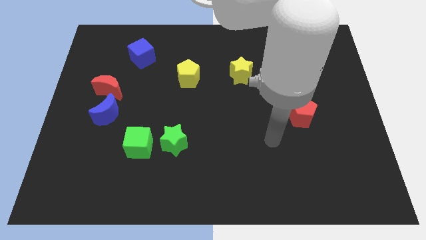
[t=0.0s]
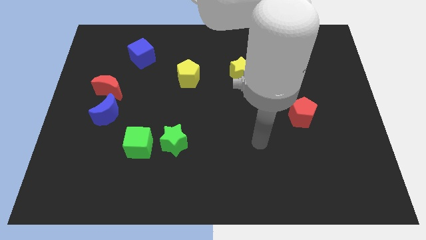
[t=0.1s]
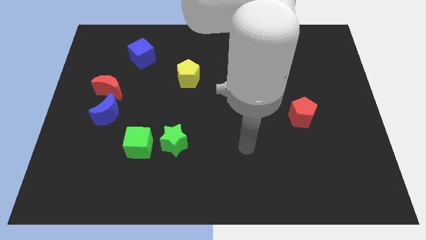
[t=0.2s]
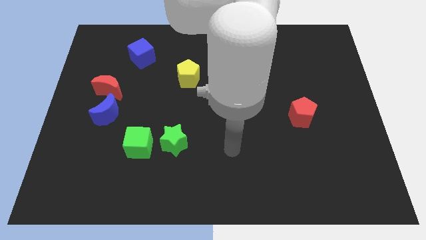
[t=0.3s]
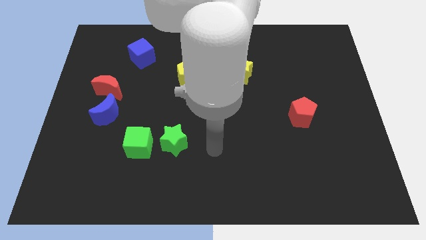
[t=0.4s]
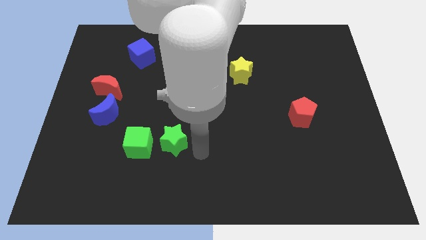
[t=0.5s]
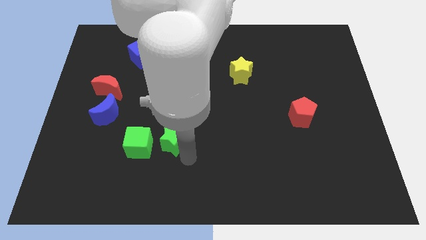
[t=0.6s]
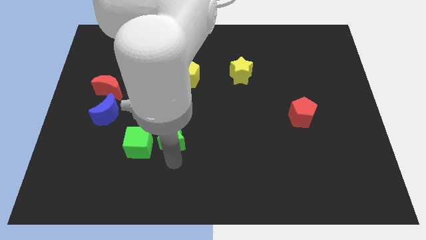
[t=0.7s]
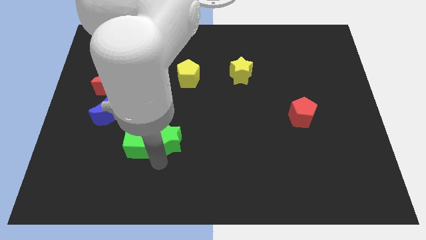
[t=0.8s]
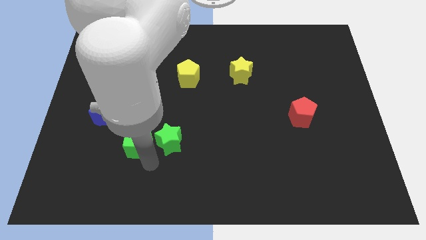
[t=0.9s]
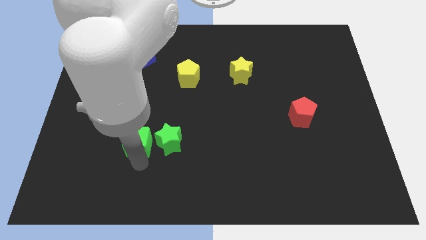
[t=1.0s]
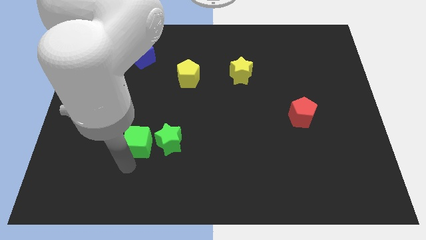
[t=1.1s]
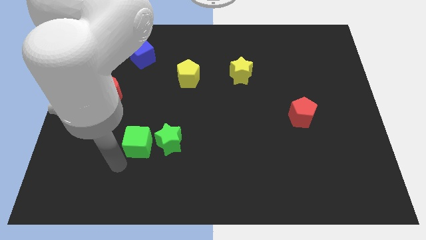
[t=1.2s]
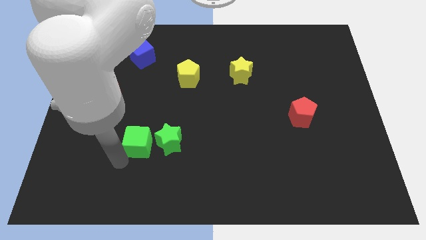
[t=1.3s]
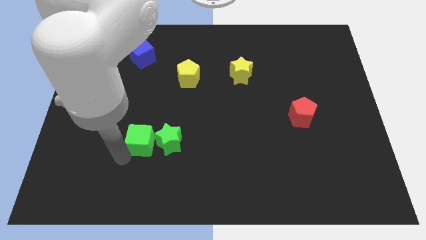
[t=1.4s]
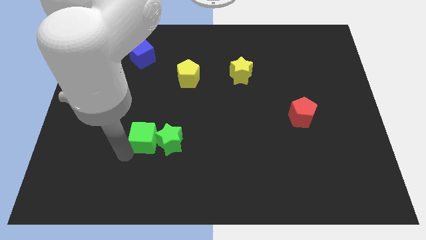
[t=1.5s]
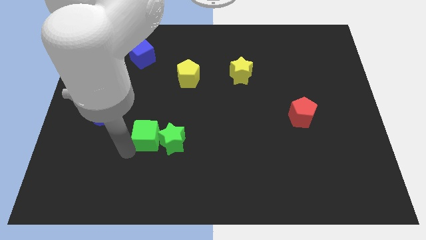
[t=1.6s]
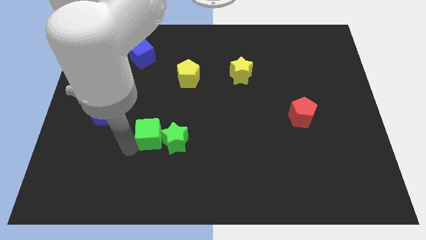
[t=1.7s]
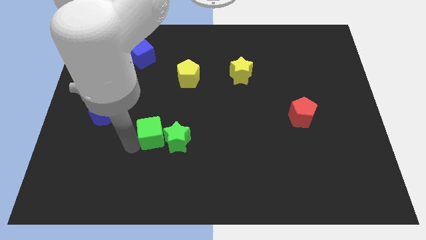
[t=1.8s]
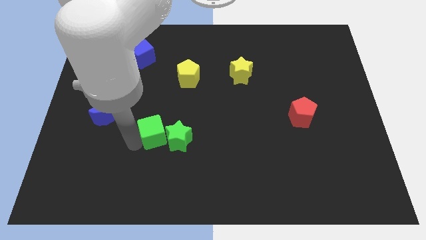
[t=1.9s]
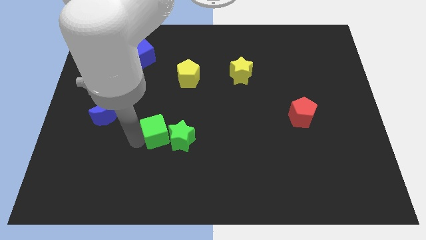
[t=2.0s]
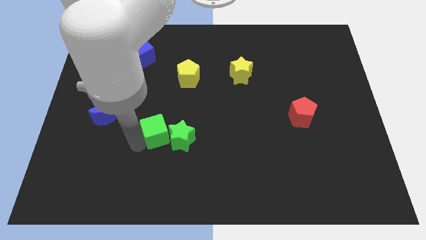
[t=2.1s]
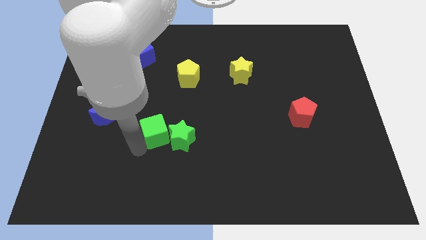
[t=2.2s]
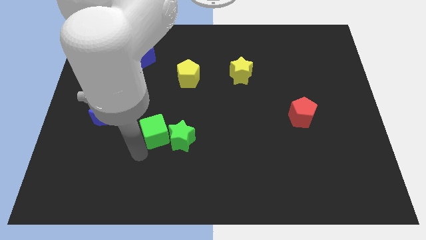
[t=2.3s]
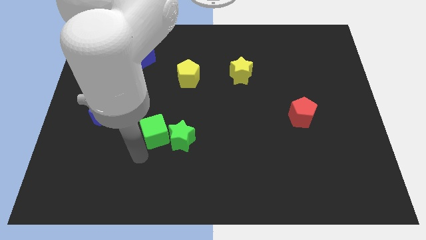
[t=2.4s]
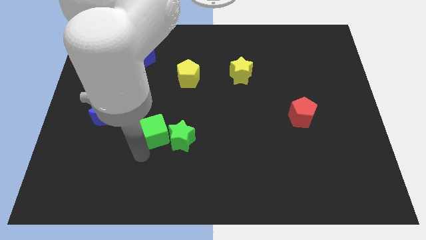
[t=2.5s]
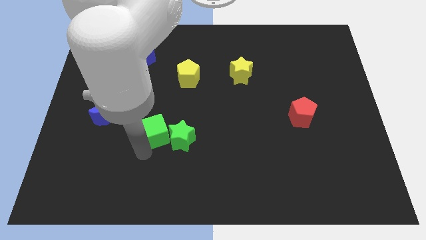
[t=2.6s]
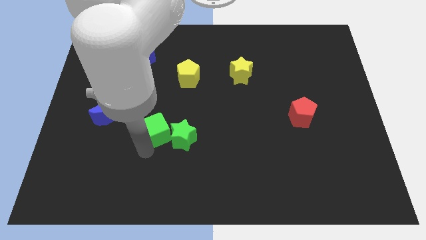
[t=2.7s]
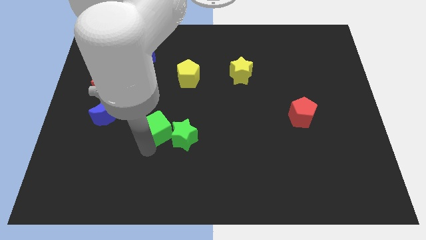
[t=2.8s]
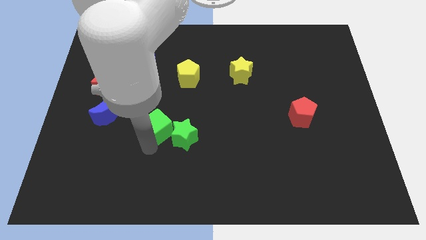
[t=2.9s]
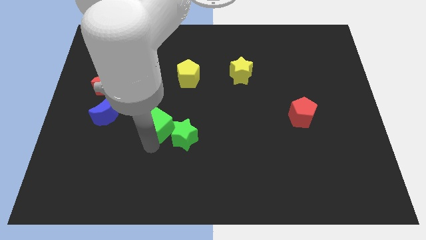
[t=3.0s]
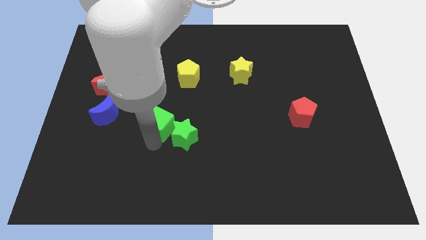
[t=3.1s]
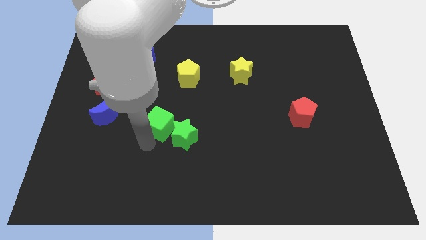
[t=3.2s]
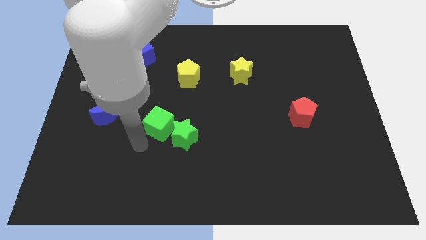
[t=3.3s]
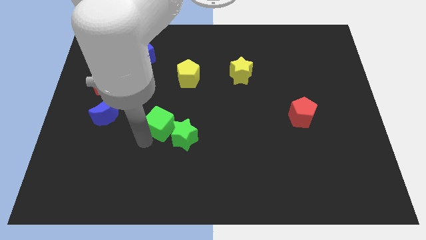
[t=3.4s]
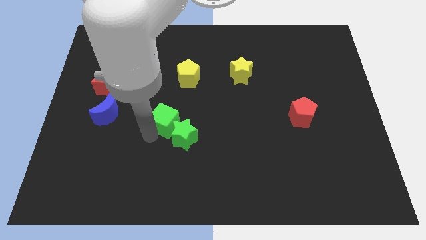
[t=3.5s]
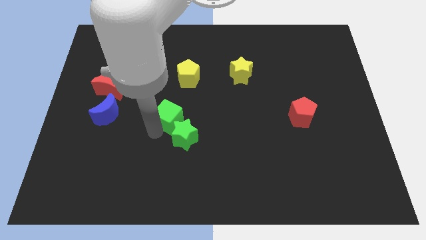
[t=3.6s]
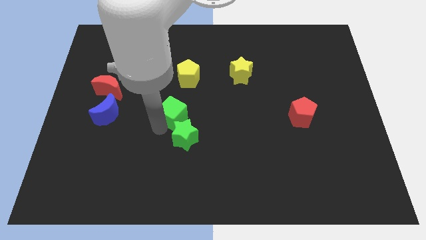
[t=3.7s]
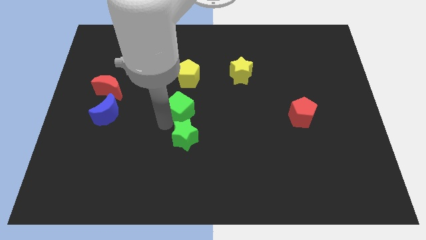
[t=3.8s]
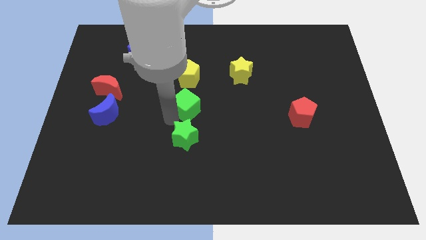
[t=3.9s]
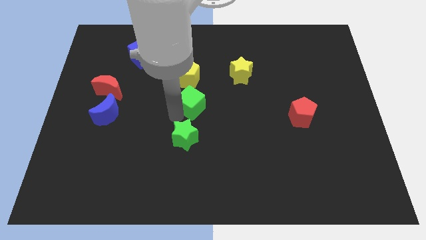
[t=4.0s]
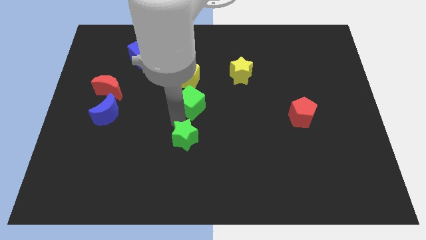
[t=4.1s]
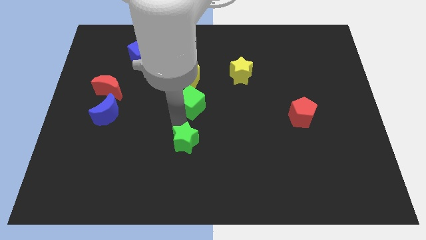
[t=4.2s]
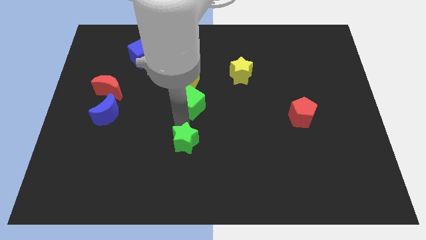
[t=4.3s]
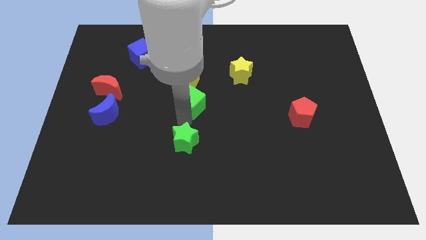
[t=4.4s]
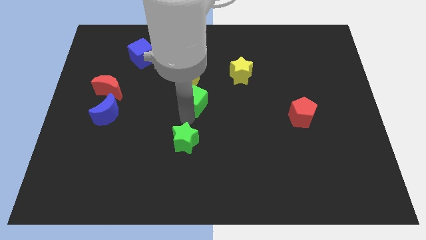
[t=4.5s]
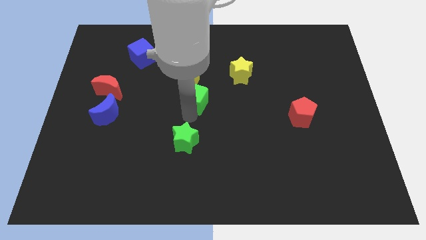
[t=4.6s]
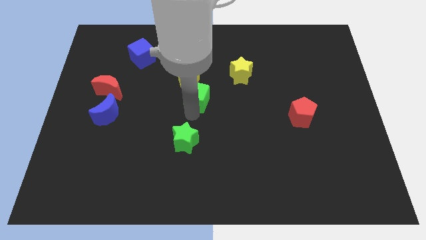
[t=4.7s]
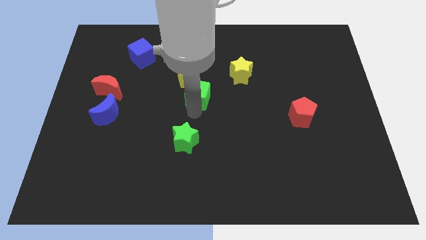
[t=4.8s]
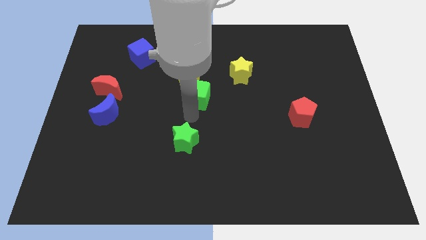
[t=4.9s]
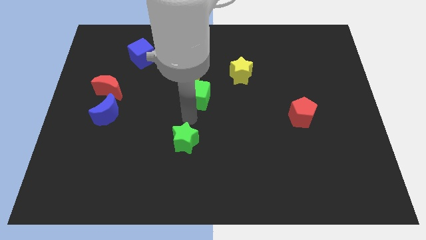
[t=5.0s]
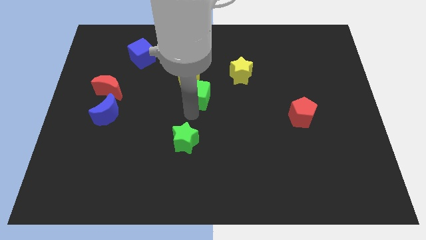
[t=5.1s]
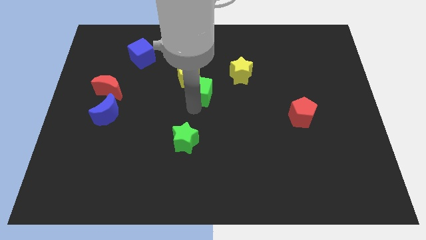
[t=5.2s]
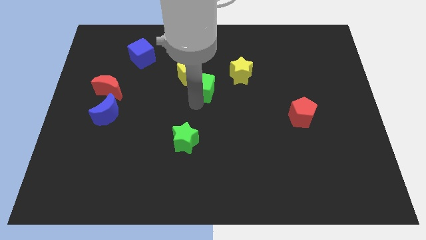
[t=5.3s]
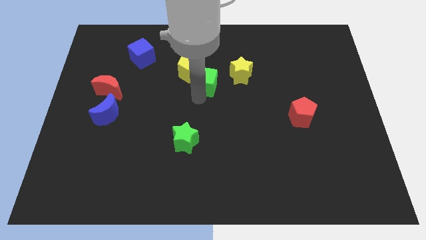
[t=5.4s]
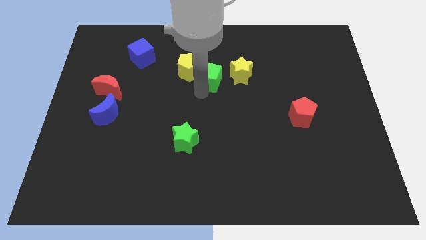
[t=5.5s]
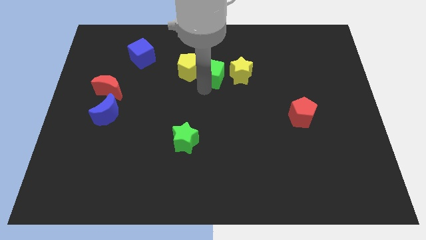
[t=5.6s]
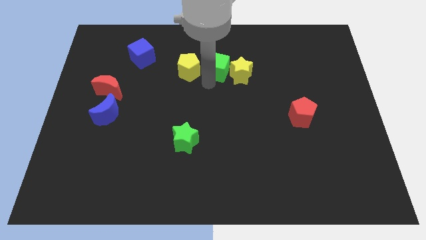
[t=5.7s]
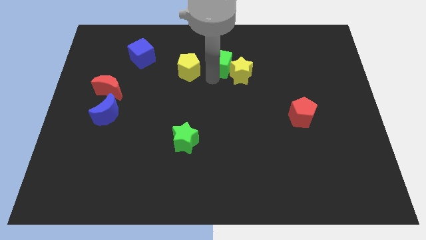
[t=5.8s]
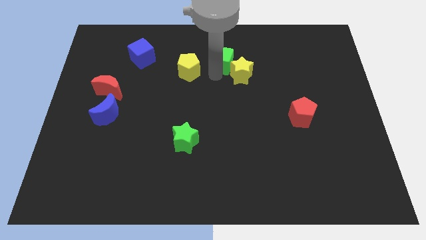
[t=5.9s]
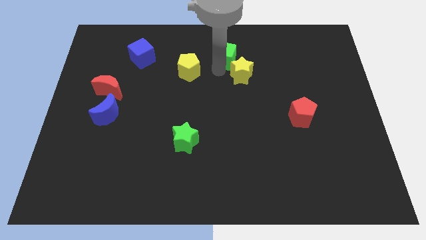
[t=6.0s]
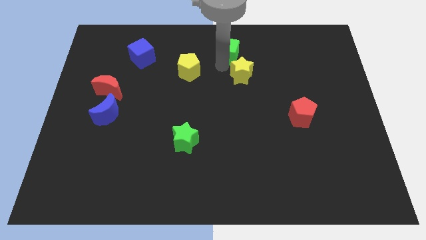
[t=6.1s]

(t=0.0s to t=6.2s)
move the green cube to the top side
